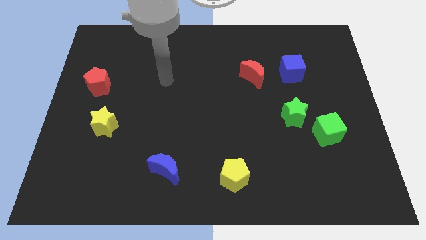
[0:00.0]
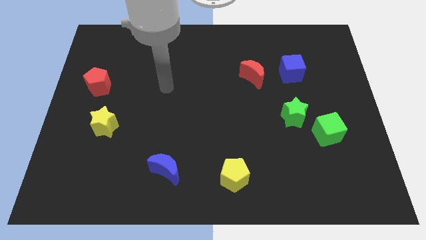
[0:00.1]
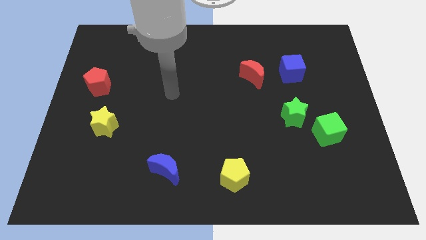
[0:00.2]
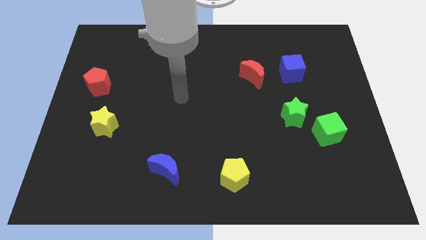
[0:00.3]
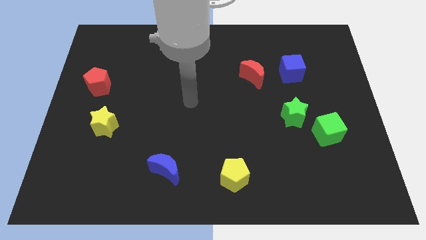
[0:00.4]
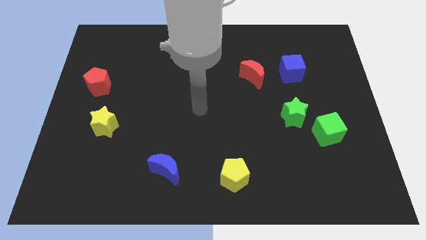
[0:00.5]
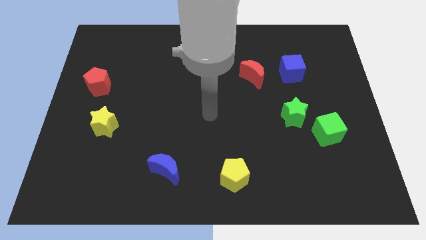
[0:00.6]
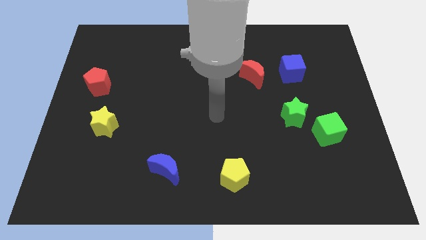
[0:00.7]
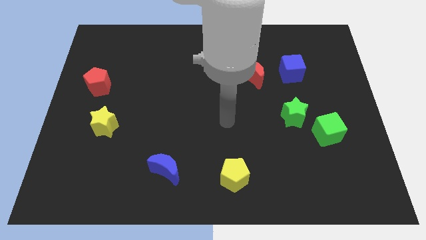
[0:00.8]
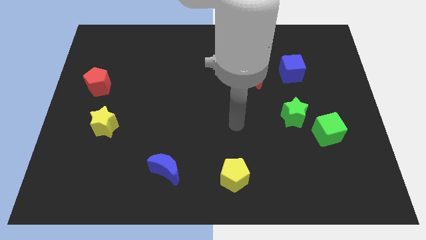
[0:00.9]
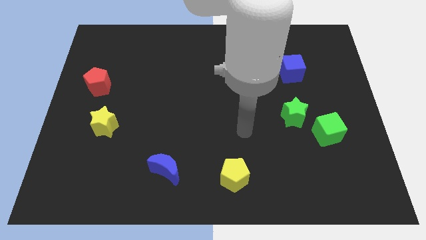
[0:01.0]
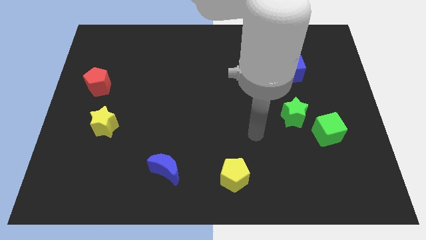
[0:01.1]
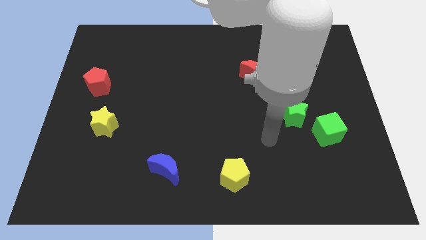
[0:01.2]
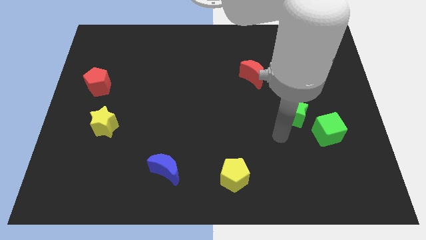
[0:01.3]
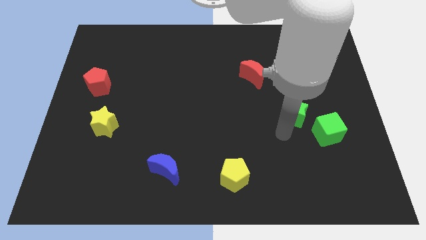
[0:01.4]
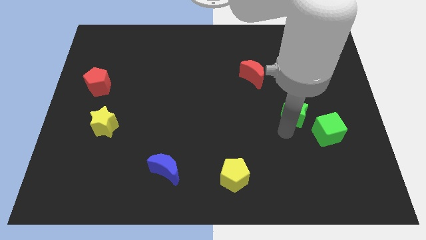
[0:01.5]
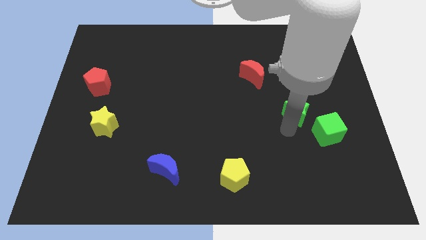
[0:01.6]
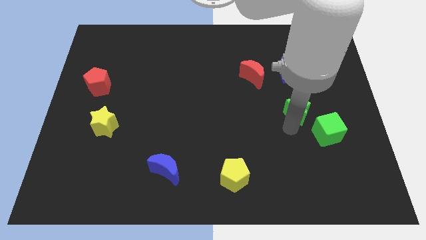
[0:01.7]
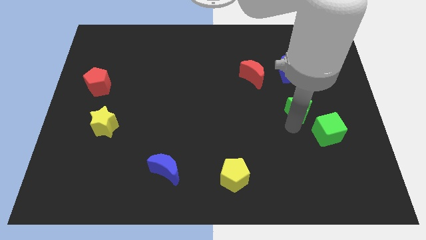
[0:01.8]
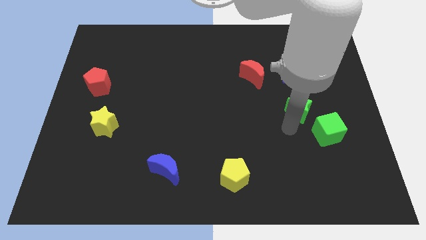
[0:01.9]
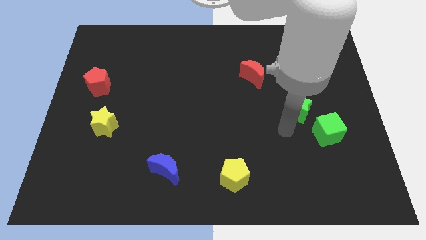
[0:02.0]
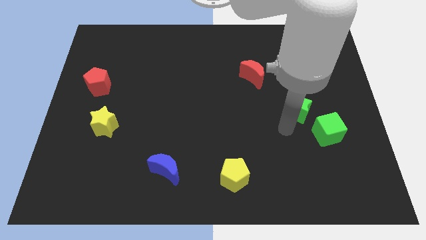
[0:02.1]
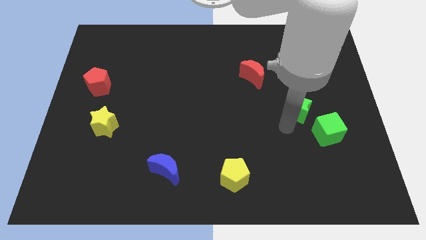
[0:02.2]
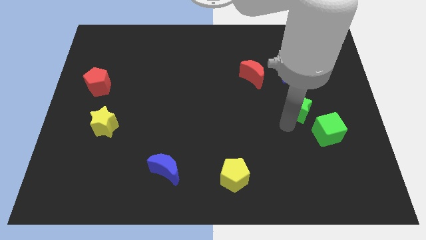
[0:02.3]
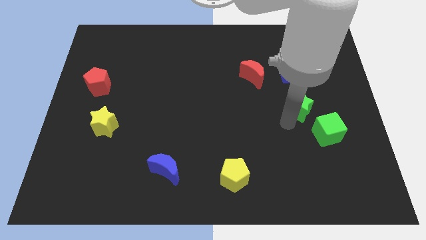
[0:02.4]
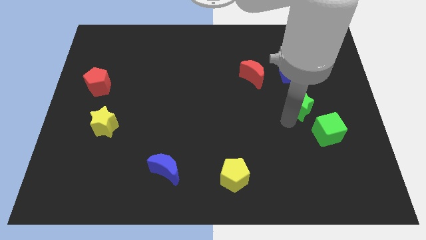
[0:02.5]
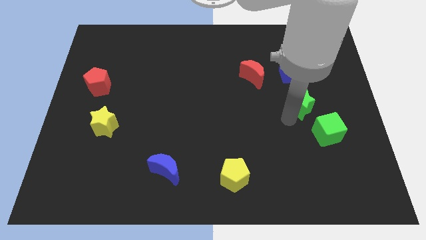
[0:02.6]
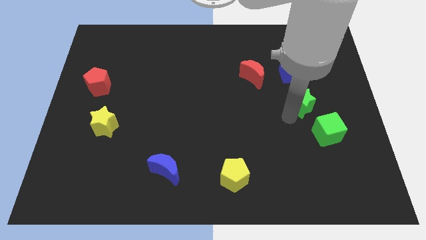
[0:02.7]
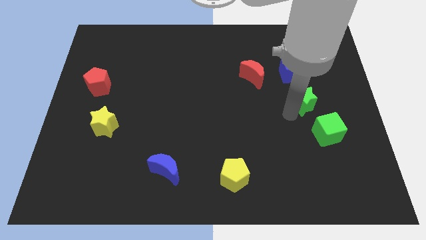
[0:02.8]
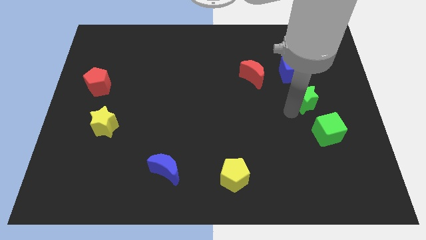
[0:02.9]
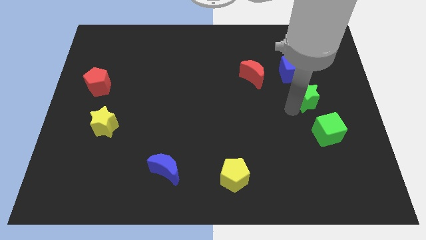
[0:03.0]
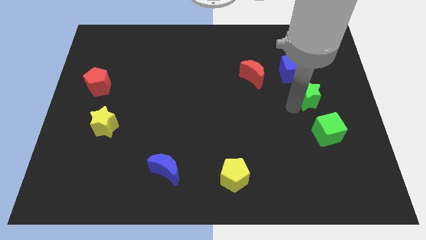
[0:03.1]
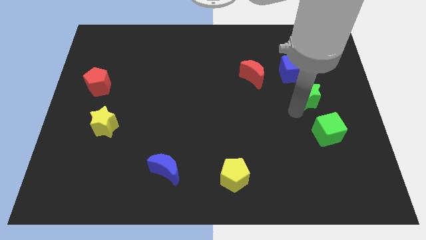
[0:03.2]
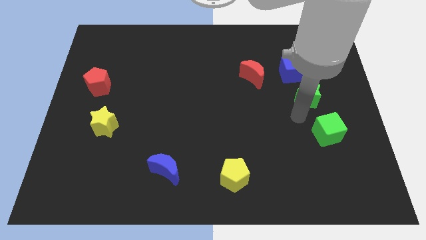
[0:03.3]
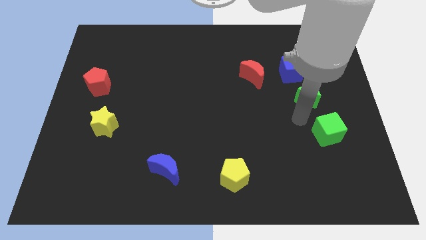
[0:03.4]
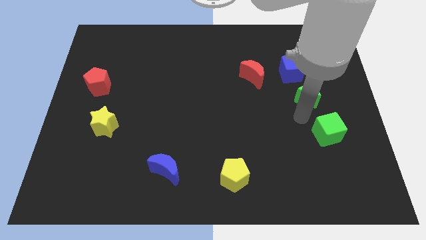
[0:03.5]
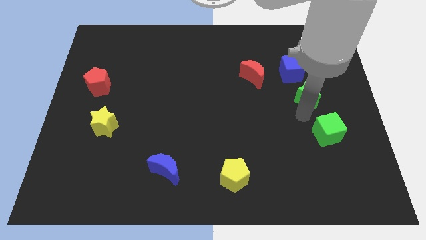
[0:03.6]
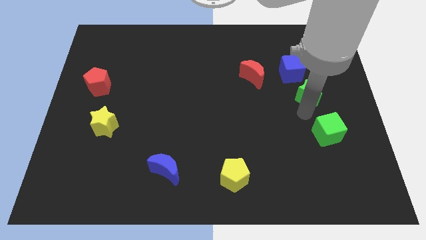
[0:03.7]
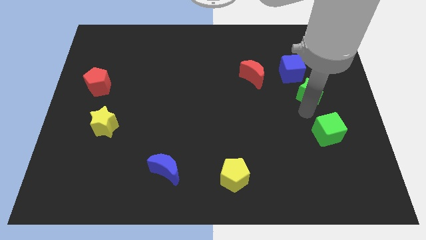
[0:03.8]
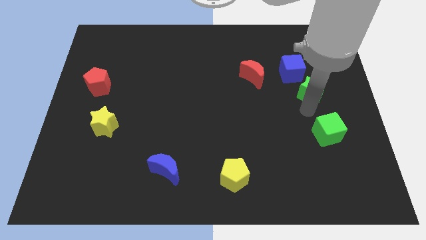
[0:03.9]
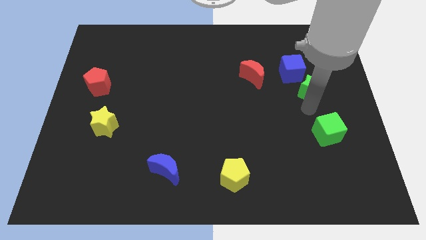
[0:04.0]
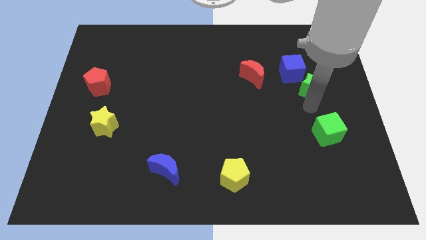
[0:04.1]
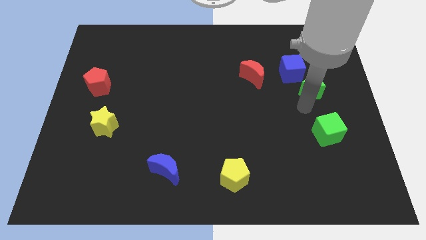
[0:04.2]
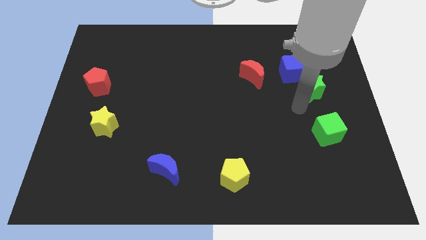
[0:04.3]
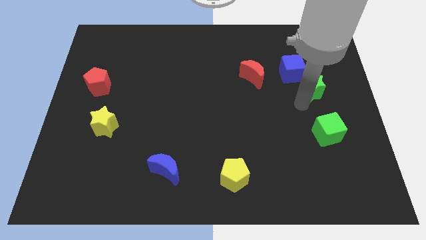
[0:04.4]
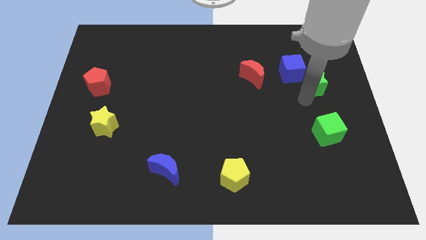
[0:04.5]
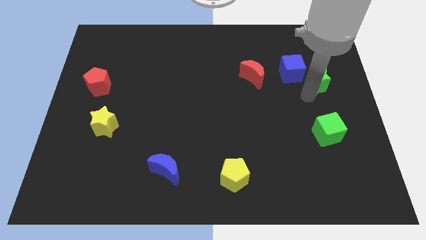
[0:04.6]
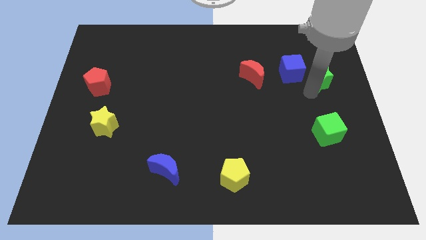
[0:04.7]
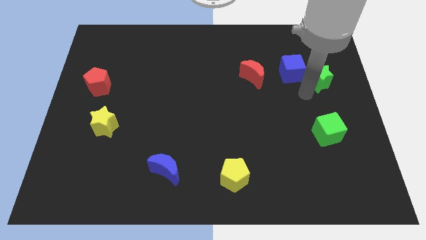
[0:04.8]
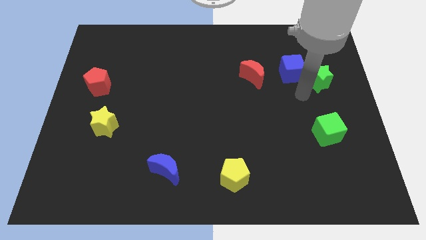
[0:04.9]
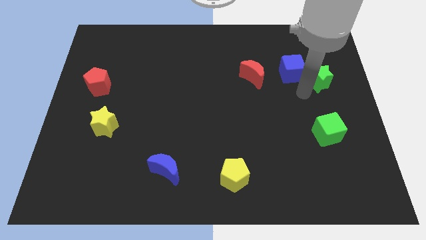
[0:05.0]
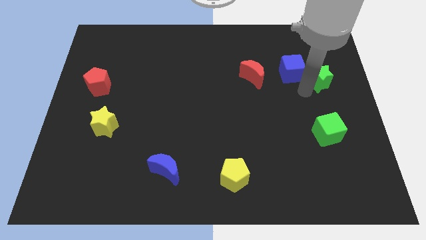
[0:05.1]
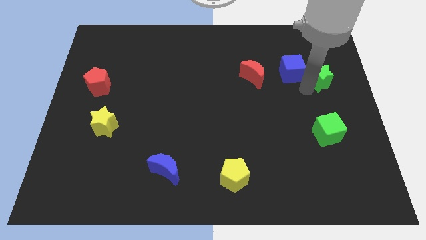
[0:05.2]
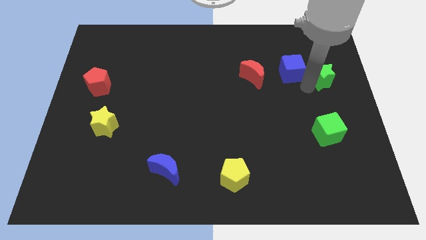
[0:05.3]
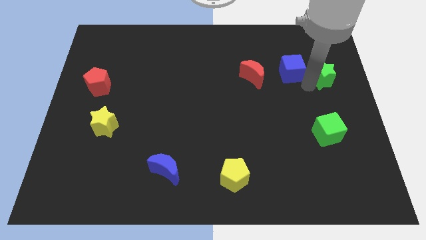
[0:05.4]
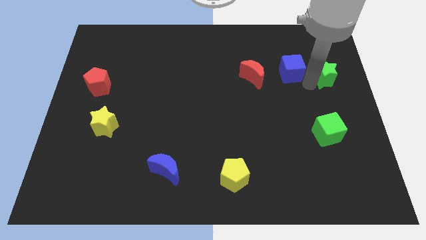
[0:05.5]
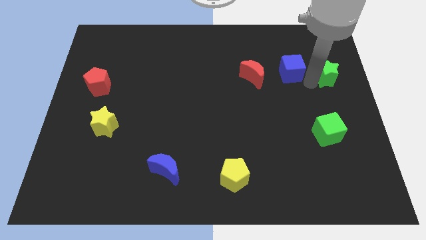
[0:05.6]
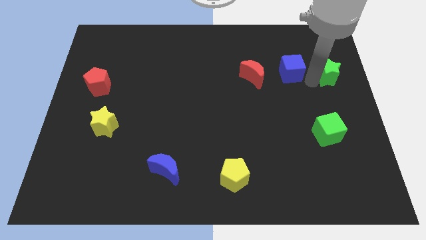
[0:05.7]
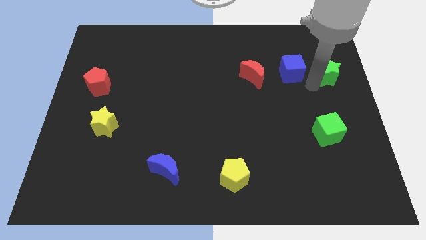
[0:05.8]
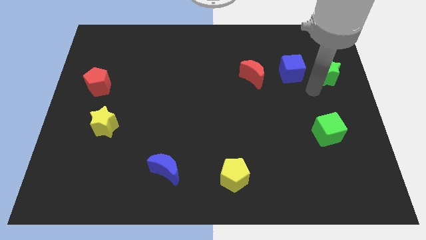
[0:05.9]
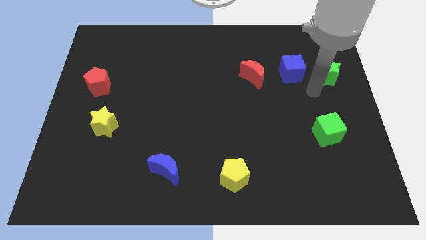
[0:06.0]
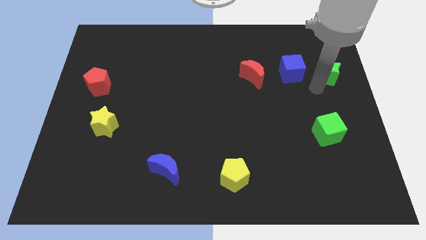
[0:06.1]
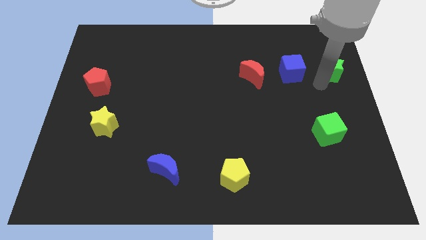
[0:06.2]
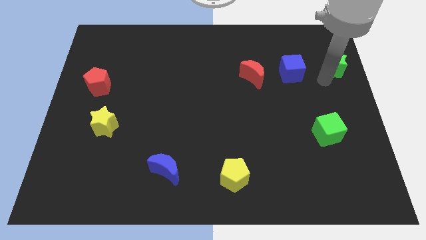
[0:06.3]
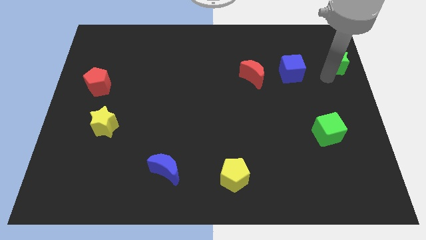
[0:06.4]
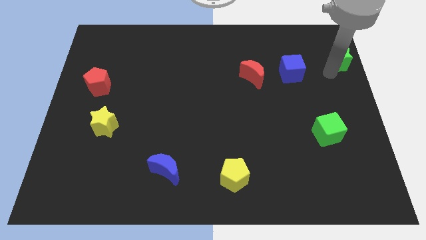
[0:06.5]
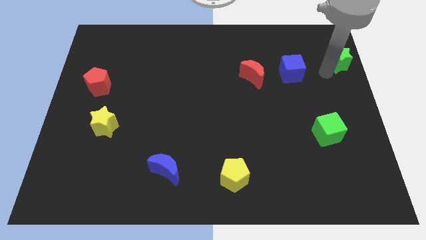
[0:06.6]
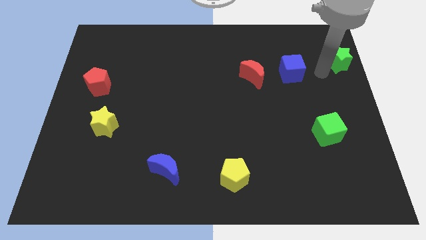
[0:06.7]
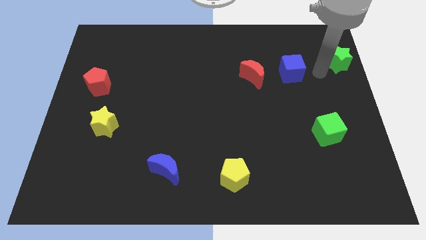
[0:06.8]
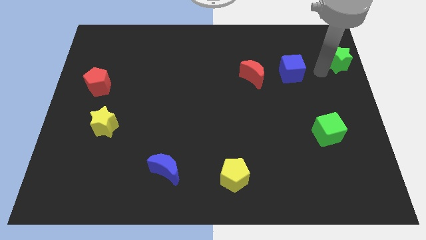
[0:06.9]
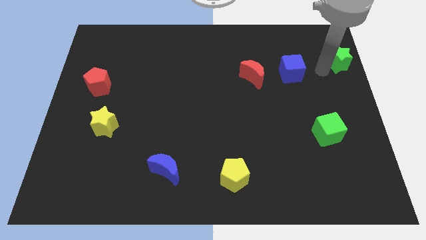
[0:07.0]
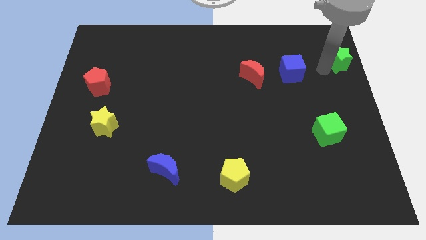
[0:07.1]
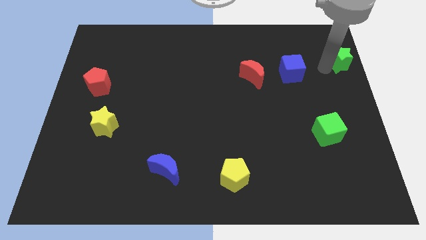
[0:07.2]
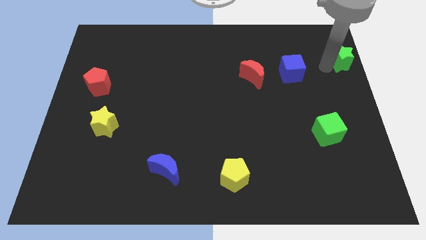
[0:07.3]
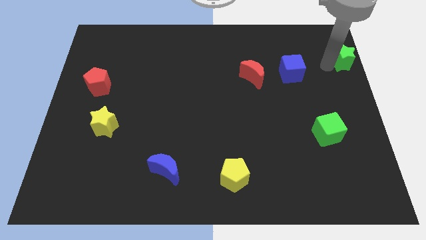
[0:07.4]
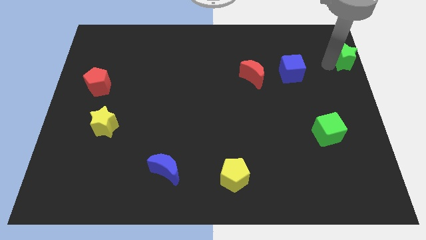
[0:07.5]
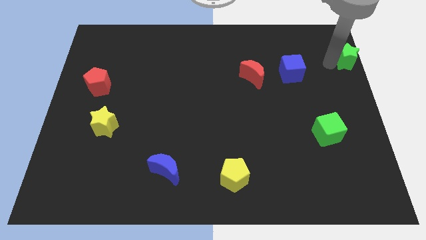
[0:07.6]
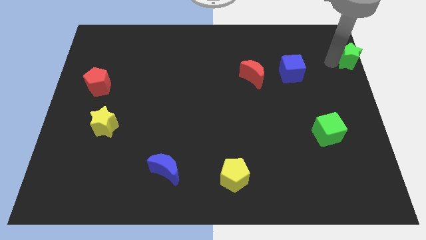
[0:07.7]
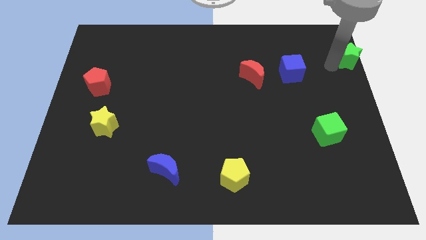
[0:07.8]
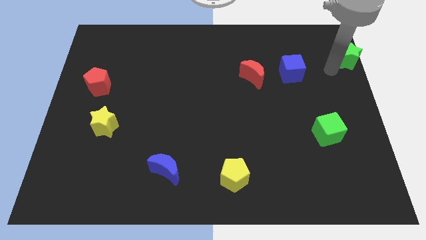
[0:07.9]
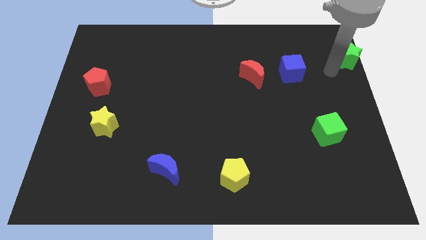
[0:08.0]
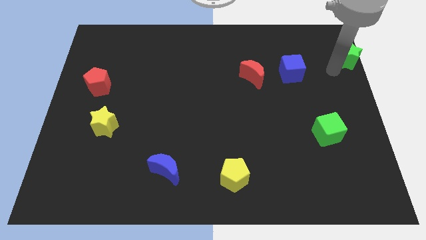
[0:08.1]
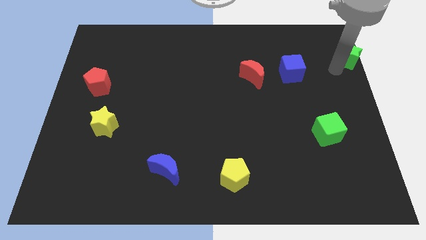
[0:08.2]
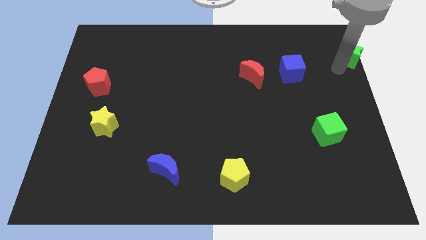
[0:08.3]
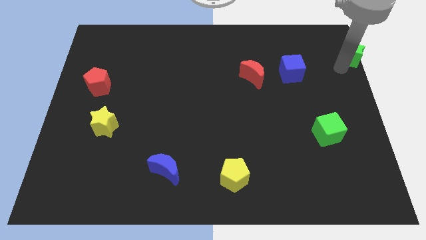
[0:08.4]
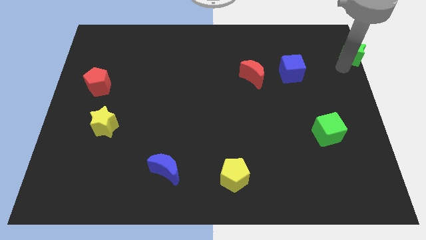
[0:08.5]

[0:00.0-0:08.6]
move the green star to the top right of the board
